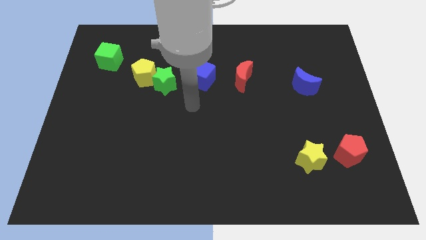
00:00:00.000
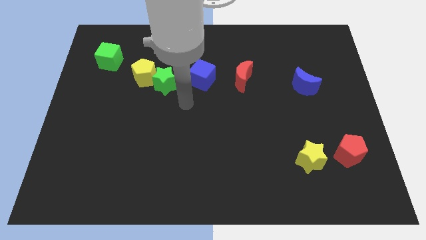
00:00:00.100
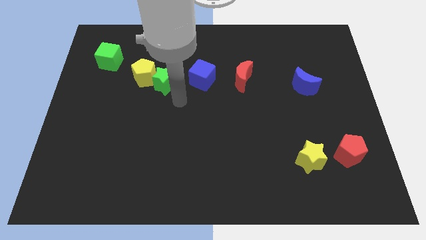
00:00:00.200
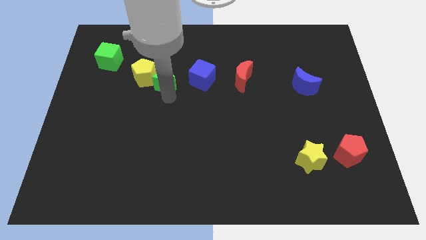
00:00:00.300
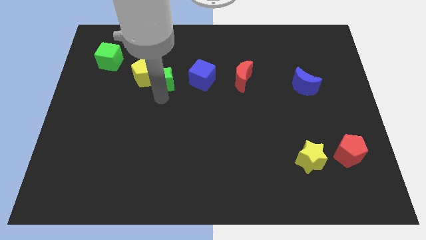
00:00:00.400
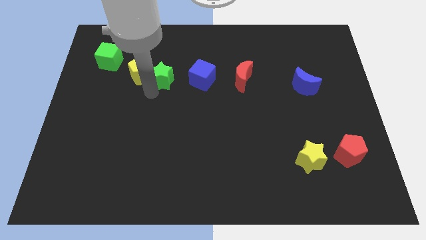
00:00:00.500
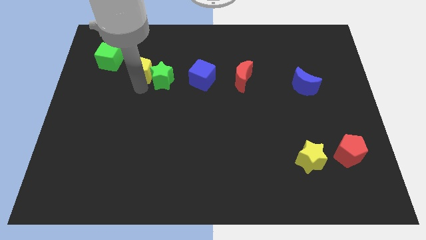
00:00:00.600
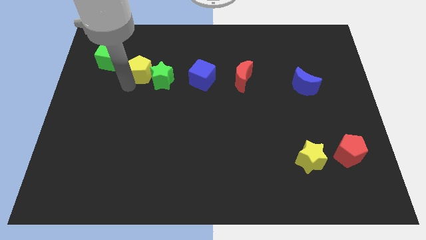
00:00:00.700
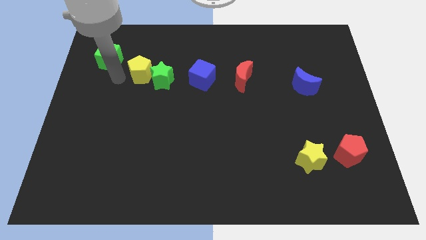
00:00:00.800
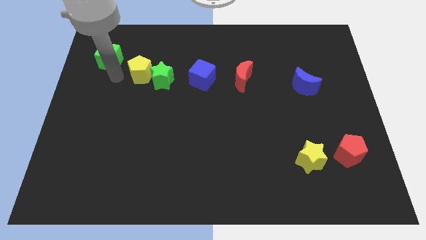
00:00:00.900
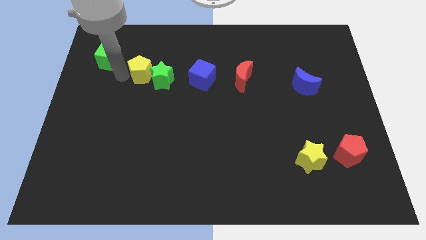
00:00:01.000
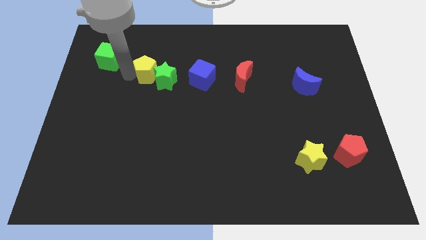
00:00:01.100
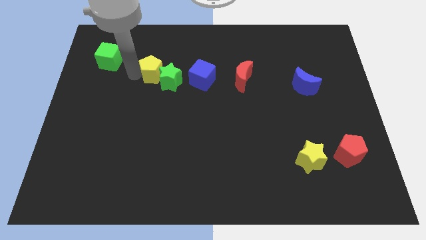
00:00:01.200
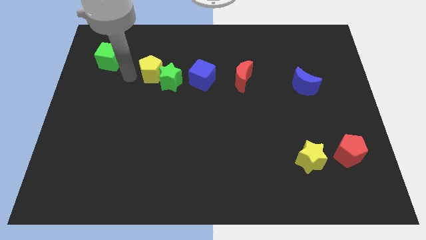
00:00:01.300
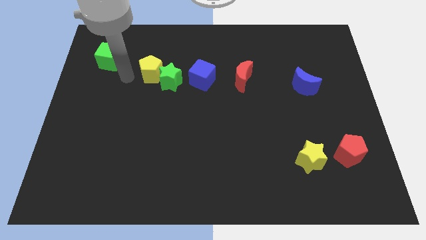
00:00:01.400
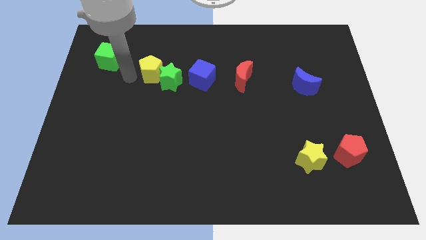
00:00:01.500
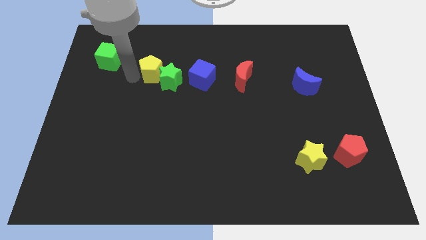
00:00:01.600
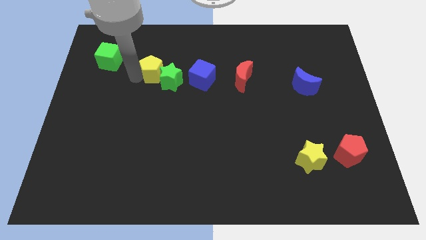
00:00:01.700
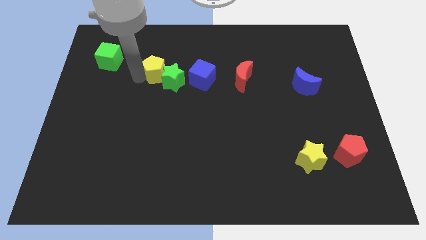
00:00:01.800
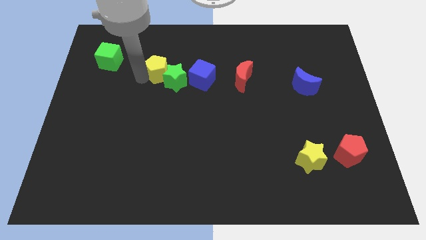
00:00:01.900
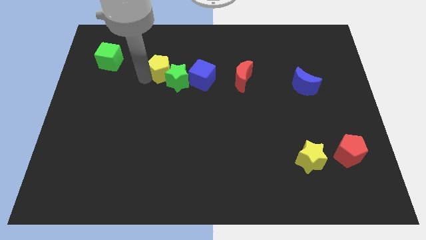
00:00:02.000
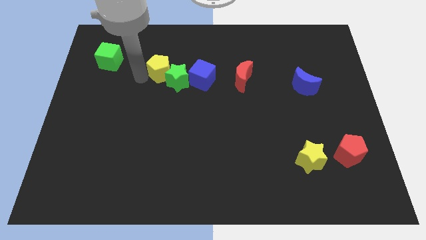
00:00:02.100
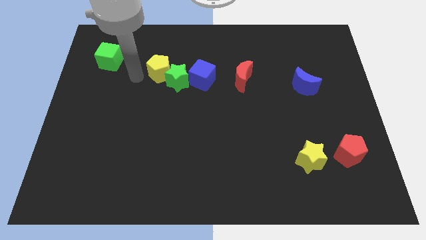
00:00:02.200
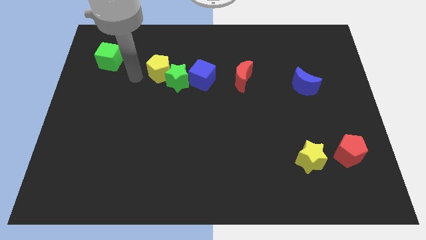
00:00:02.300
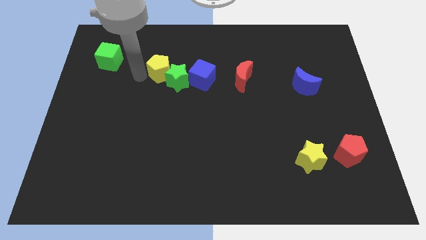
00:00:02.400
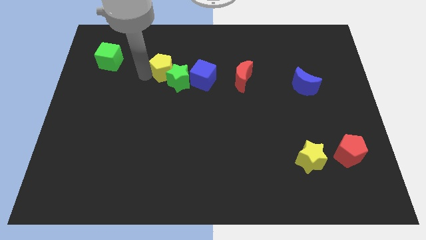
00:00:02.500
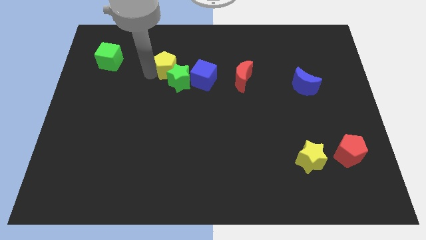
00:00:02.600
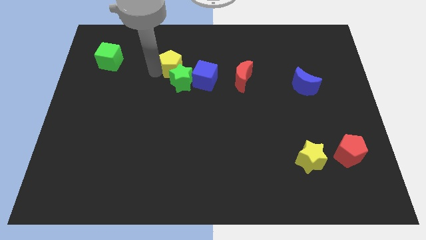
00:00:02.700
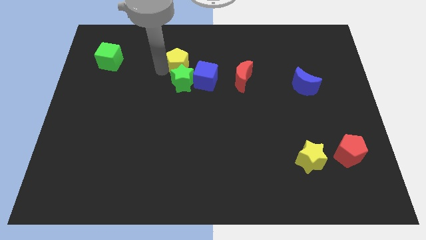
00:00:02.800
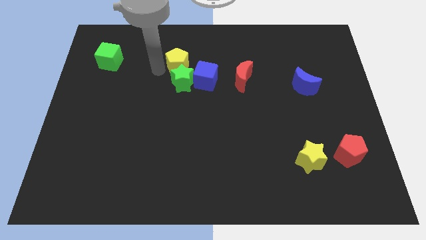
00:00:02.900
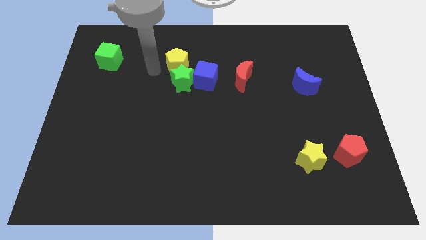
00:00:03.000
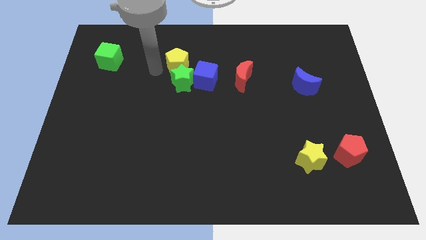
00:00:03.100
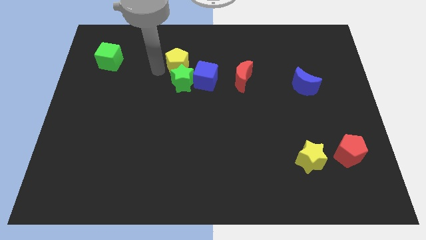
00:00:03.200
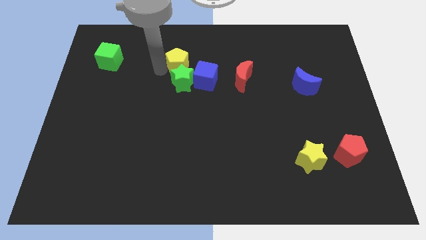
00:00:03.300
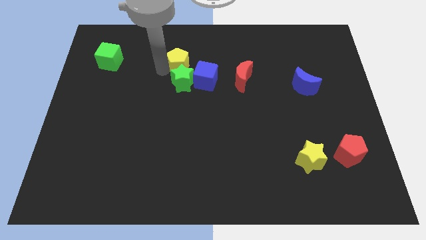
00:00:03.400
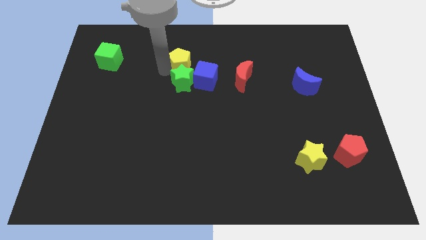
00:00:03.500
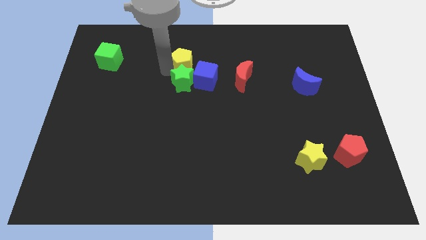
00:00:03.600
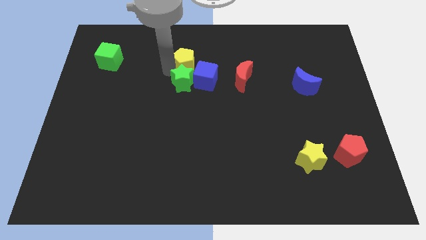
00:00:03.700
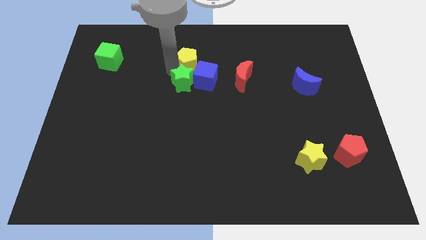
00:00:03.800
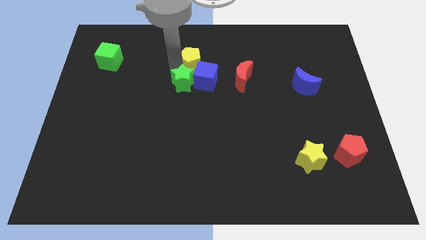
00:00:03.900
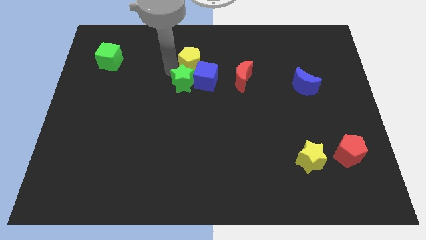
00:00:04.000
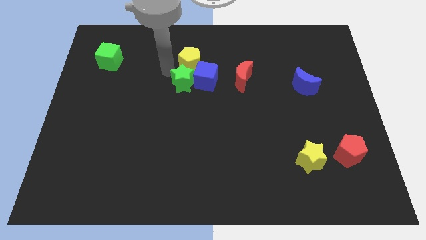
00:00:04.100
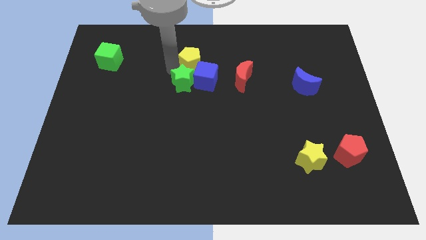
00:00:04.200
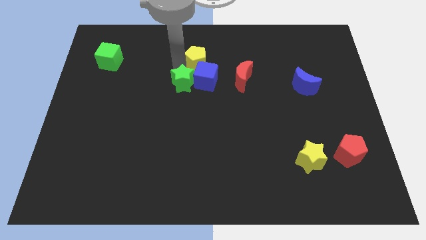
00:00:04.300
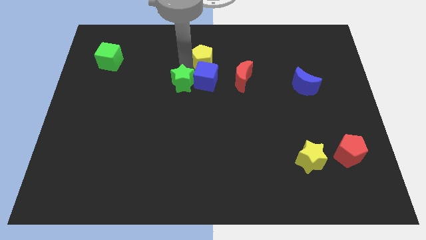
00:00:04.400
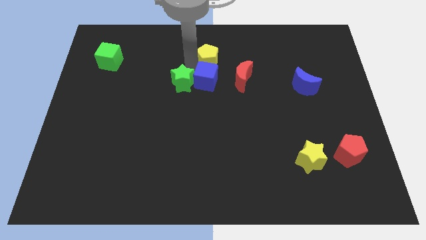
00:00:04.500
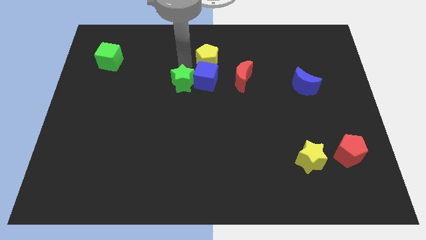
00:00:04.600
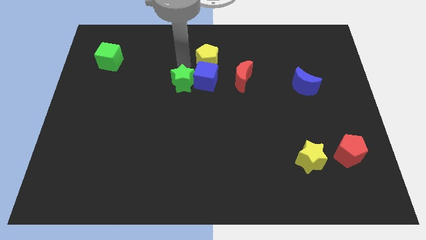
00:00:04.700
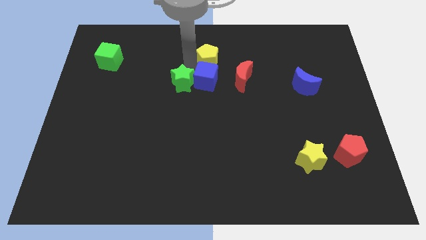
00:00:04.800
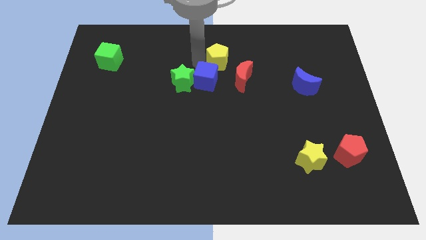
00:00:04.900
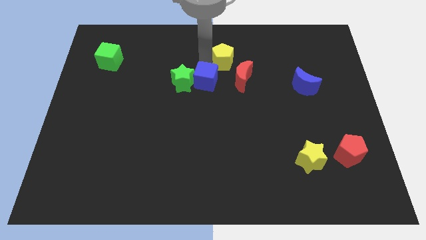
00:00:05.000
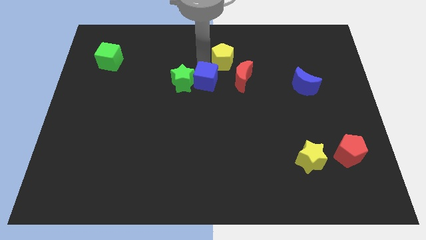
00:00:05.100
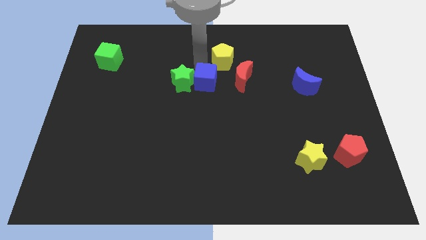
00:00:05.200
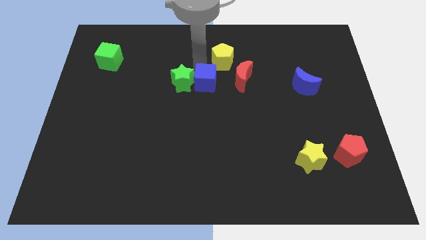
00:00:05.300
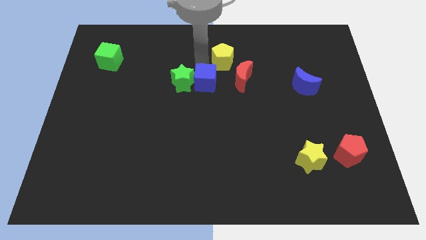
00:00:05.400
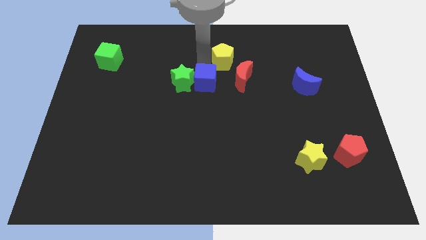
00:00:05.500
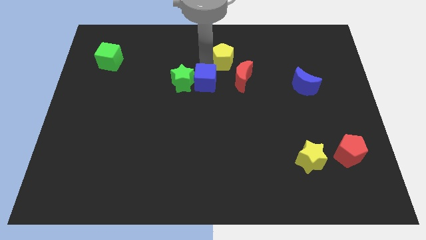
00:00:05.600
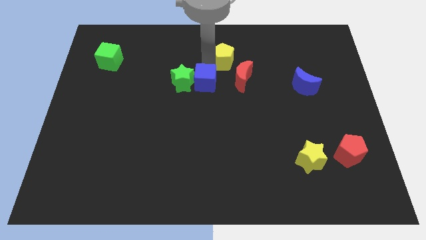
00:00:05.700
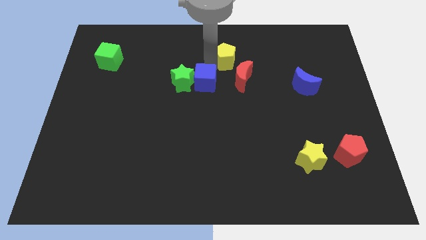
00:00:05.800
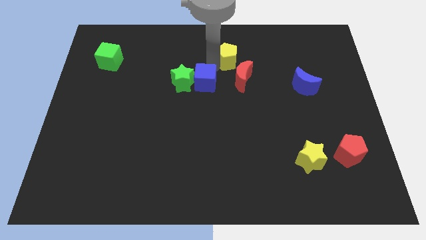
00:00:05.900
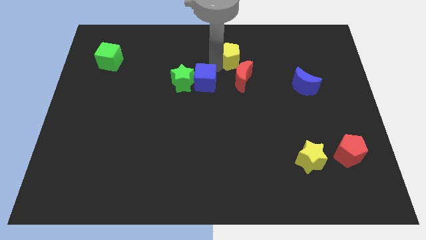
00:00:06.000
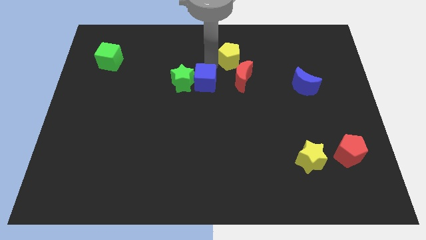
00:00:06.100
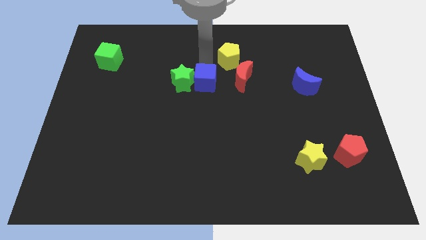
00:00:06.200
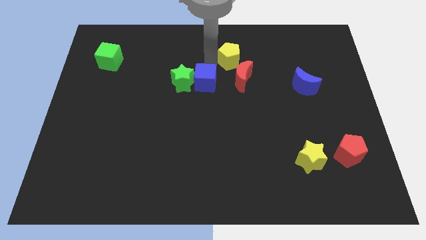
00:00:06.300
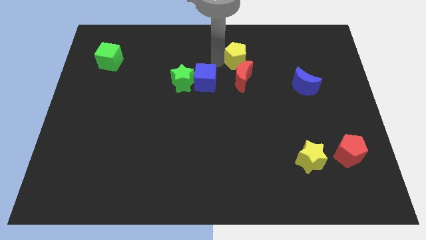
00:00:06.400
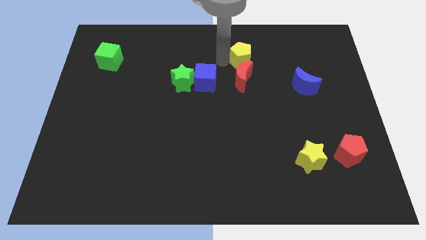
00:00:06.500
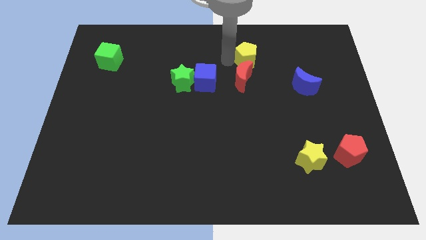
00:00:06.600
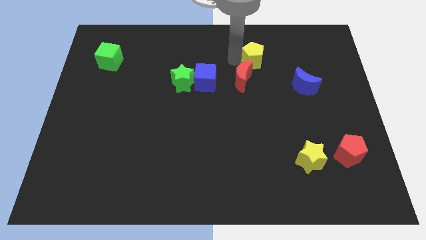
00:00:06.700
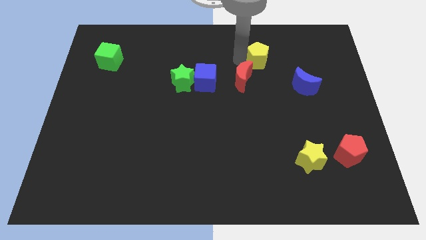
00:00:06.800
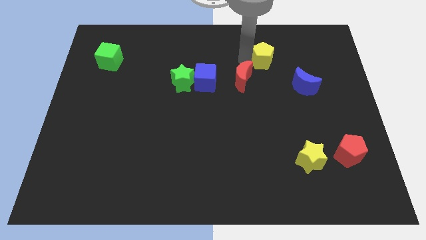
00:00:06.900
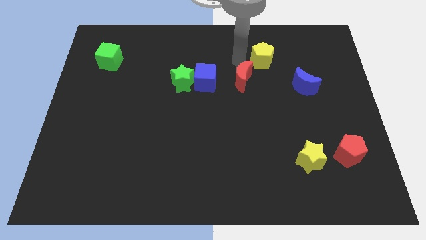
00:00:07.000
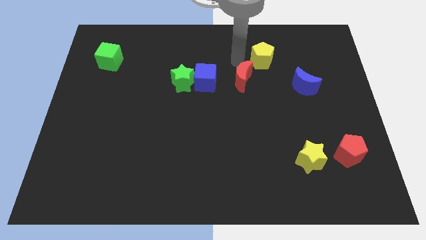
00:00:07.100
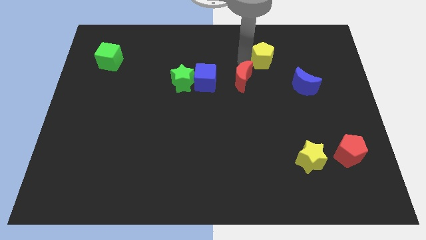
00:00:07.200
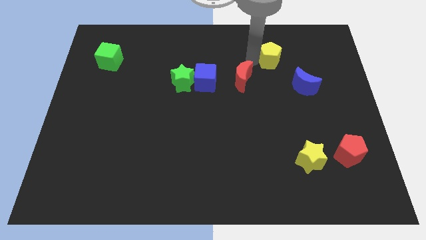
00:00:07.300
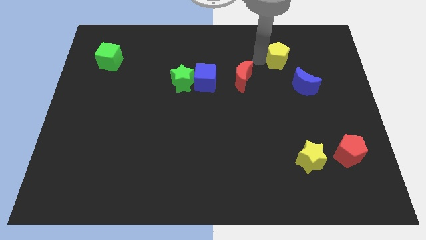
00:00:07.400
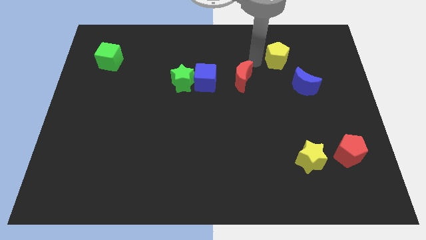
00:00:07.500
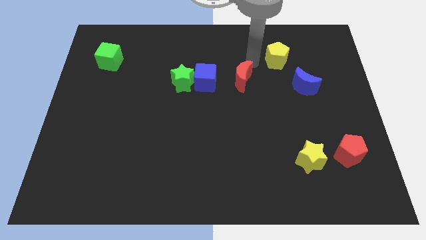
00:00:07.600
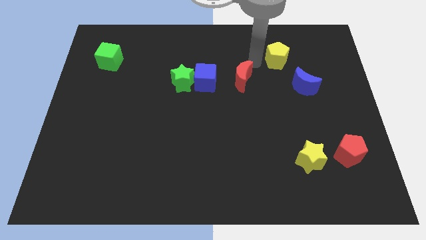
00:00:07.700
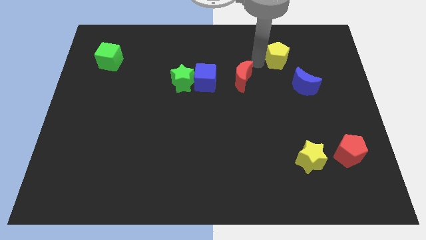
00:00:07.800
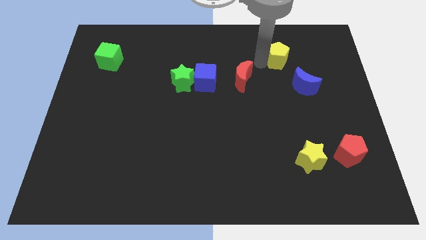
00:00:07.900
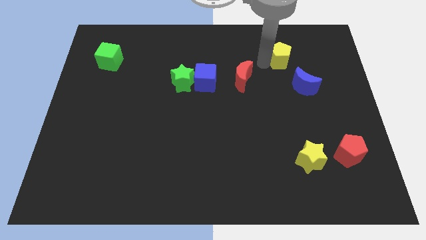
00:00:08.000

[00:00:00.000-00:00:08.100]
put the yellow pentagon to the top of the blue moon
